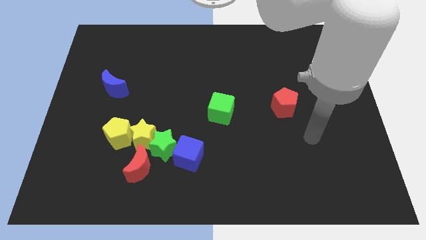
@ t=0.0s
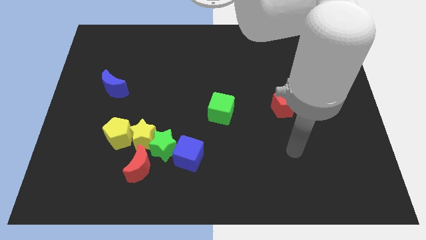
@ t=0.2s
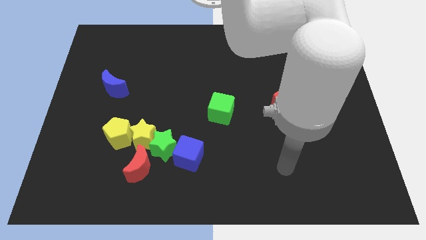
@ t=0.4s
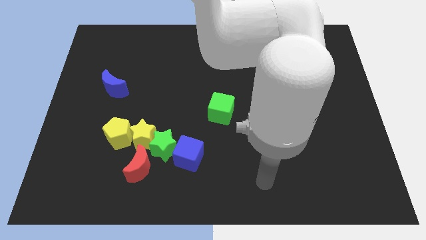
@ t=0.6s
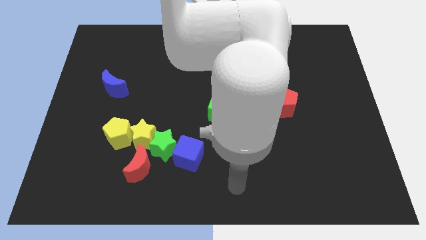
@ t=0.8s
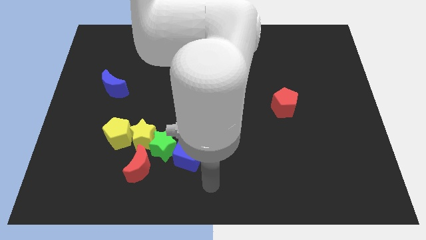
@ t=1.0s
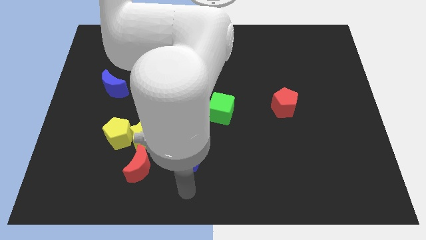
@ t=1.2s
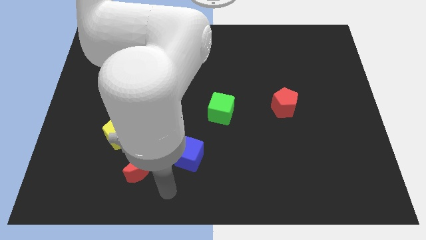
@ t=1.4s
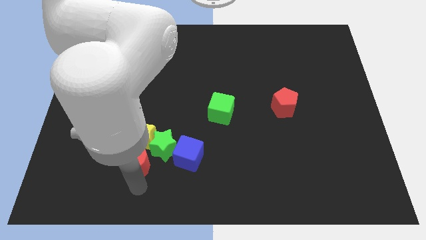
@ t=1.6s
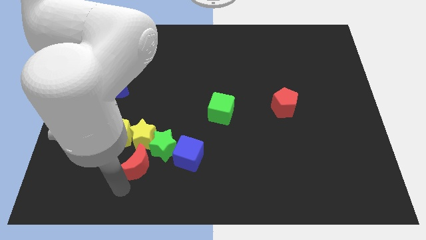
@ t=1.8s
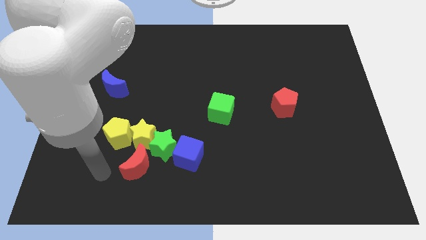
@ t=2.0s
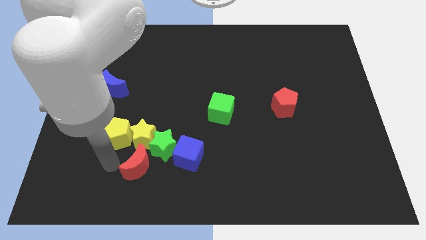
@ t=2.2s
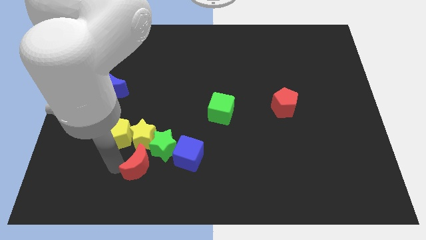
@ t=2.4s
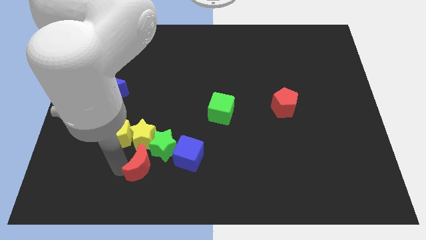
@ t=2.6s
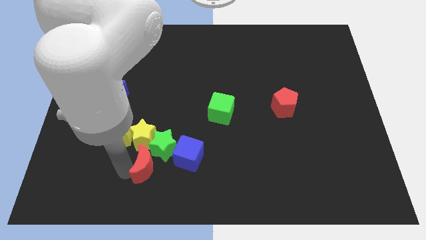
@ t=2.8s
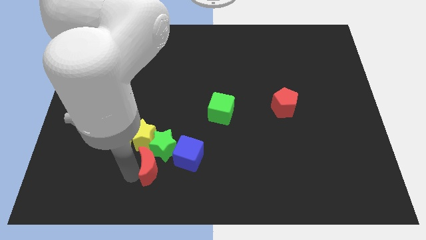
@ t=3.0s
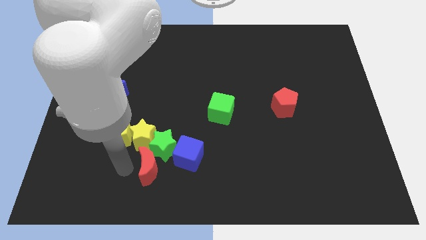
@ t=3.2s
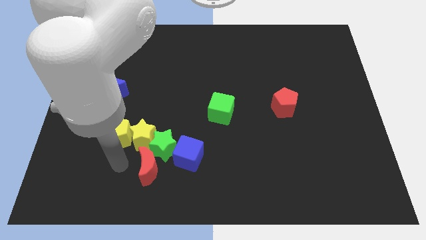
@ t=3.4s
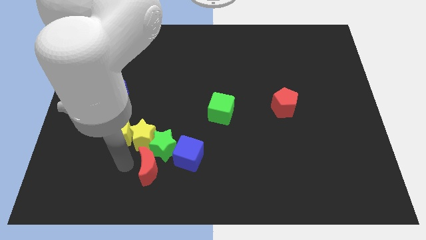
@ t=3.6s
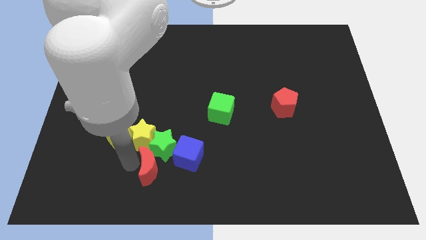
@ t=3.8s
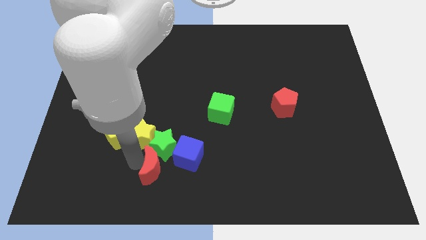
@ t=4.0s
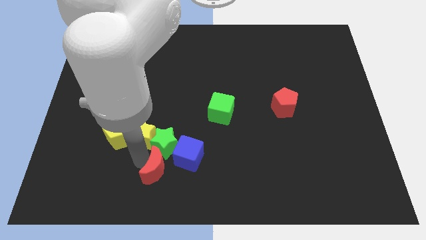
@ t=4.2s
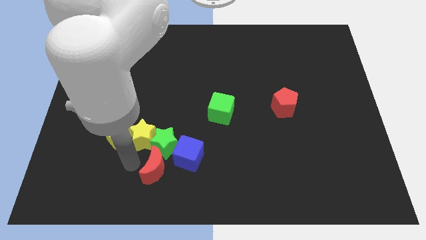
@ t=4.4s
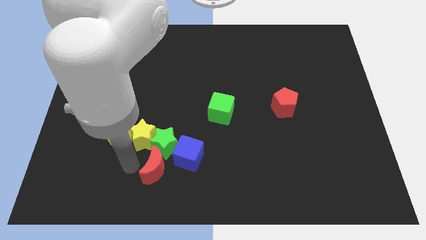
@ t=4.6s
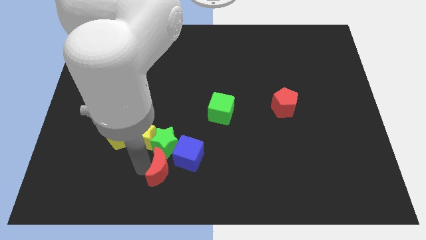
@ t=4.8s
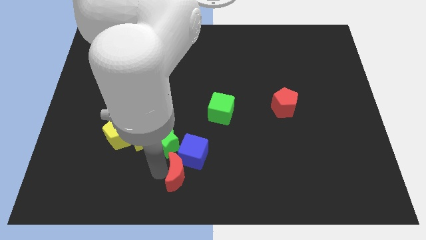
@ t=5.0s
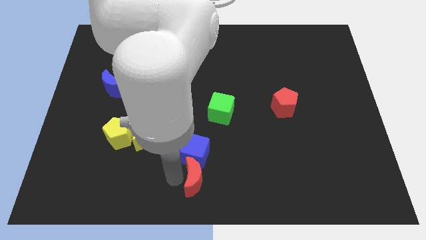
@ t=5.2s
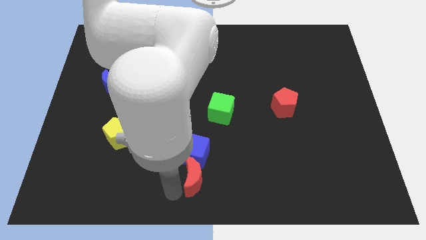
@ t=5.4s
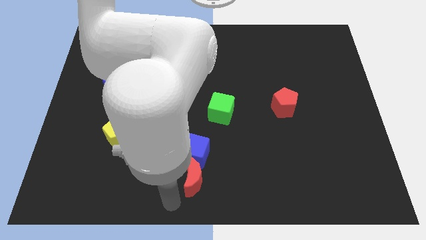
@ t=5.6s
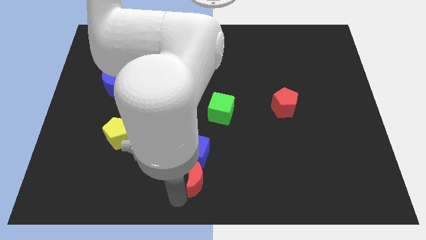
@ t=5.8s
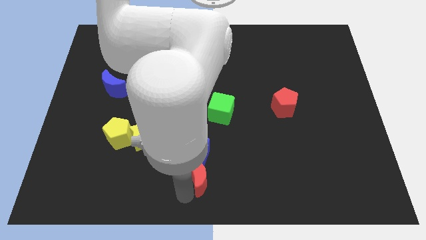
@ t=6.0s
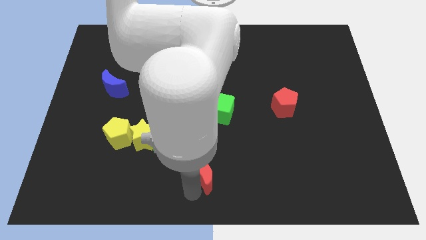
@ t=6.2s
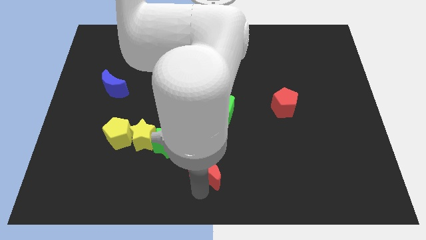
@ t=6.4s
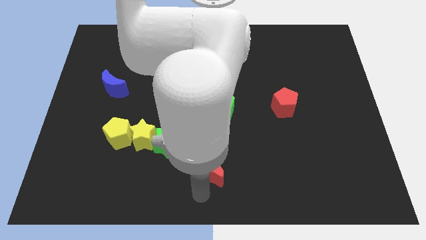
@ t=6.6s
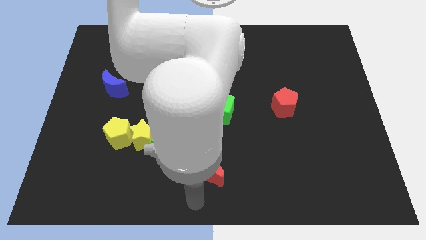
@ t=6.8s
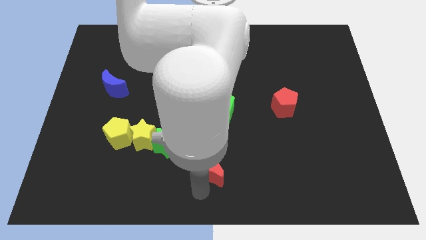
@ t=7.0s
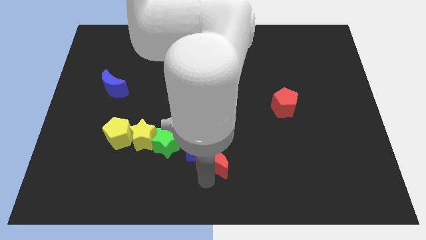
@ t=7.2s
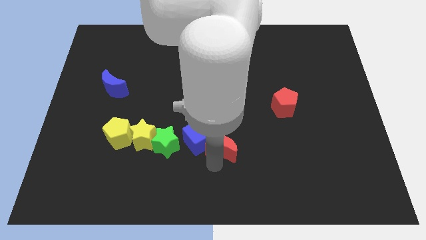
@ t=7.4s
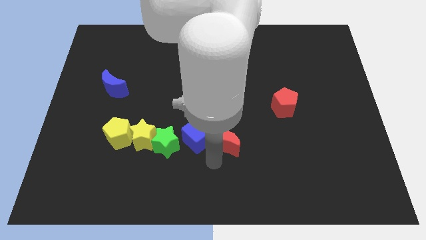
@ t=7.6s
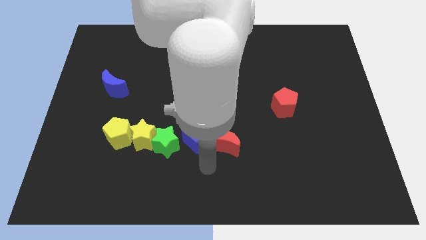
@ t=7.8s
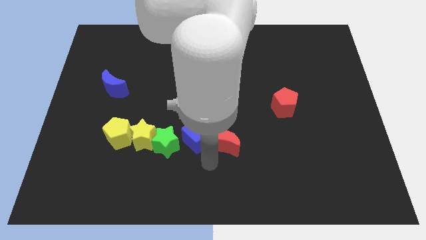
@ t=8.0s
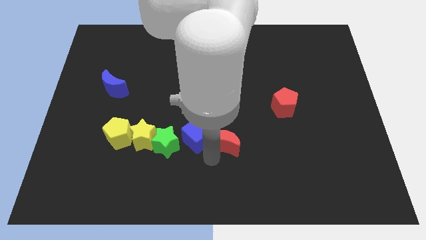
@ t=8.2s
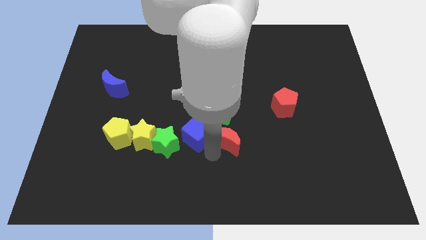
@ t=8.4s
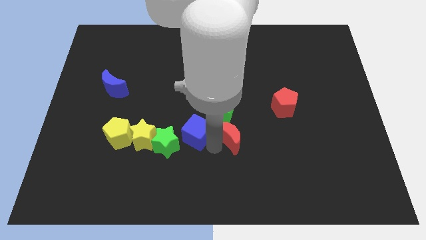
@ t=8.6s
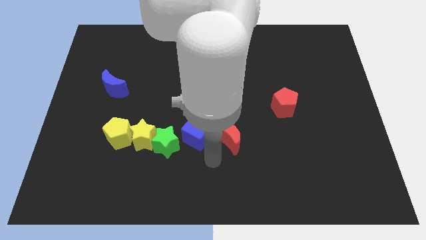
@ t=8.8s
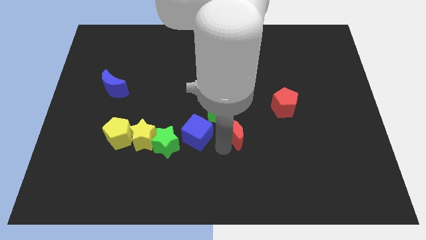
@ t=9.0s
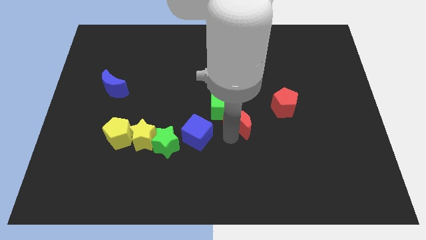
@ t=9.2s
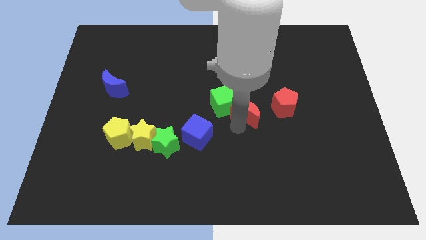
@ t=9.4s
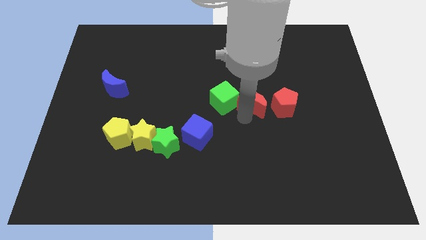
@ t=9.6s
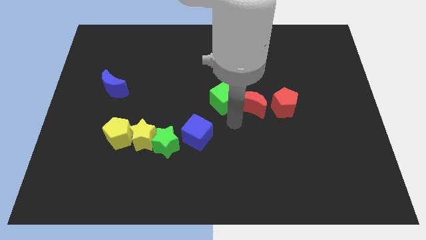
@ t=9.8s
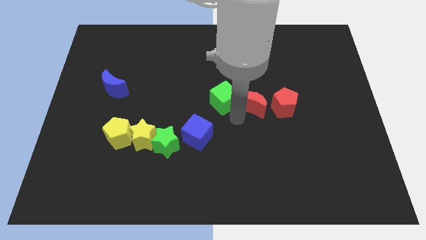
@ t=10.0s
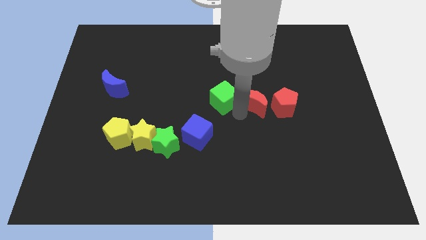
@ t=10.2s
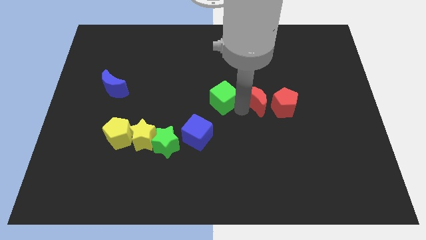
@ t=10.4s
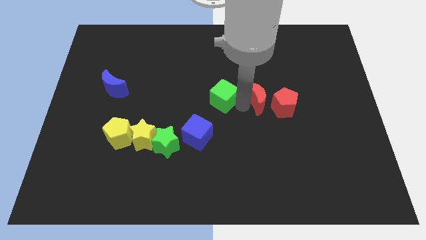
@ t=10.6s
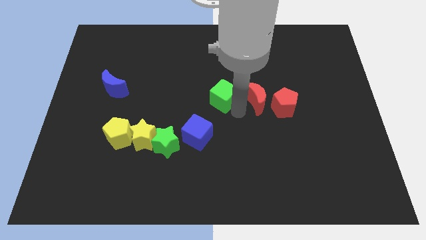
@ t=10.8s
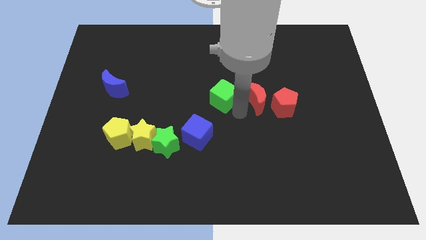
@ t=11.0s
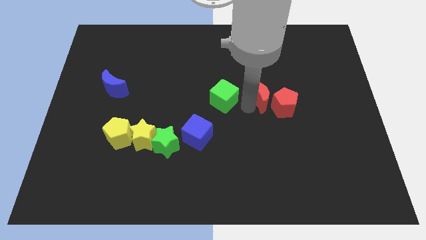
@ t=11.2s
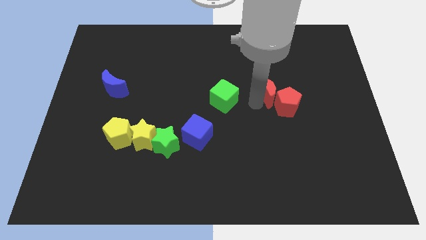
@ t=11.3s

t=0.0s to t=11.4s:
slide the red moon to the top of the red pentagon

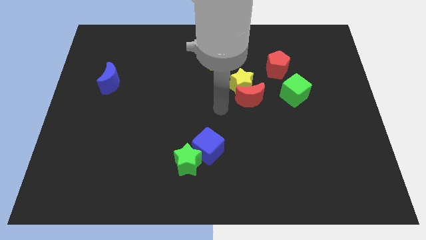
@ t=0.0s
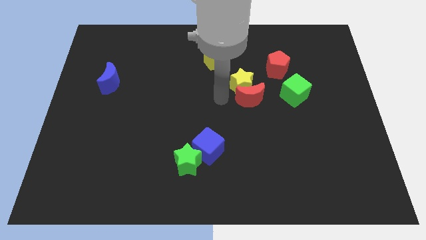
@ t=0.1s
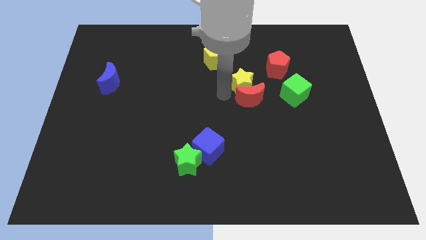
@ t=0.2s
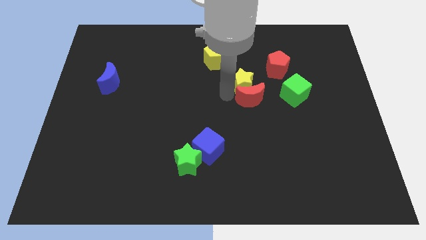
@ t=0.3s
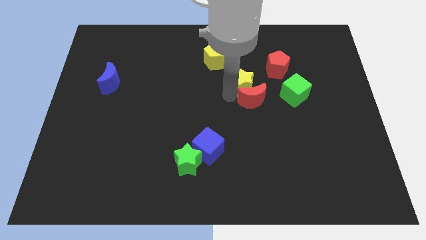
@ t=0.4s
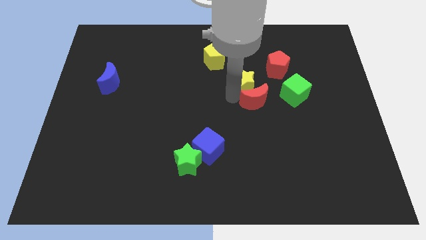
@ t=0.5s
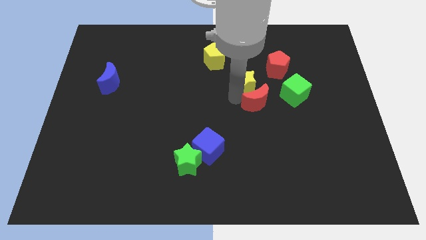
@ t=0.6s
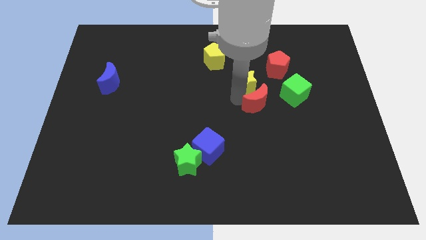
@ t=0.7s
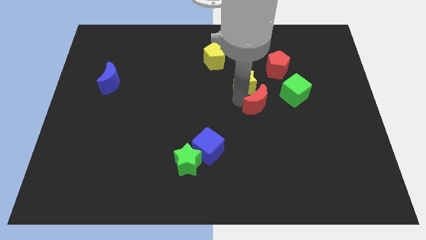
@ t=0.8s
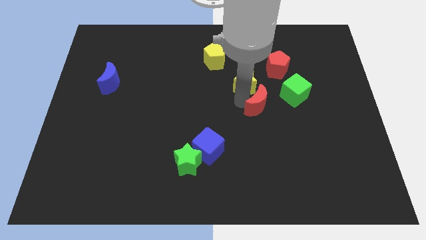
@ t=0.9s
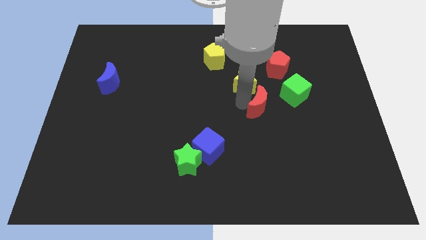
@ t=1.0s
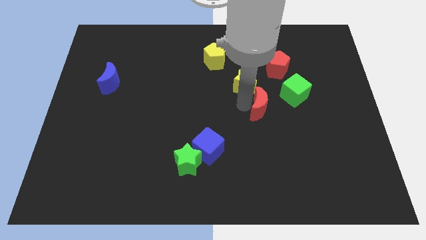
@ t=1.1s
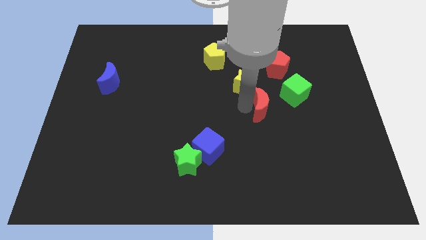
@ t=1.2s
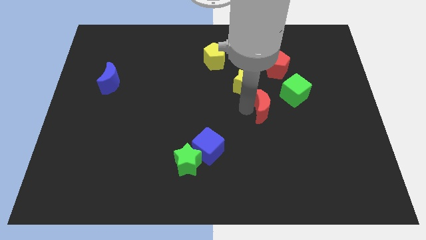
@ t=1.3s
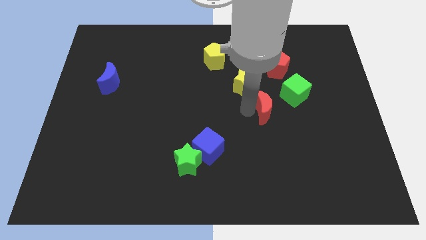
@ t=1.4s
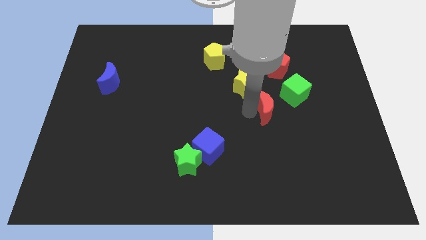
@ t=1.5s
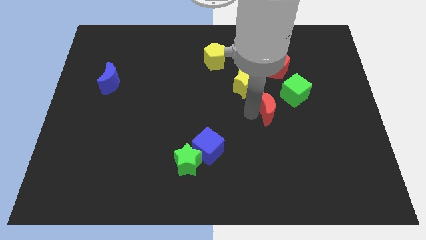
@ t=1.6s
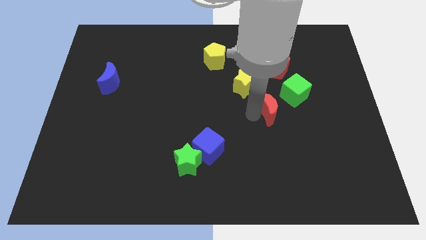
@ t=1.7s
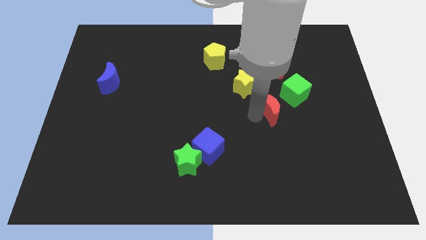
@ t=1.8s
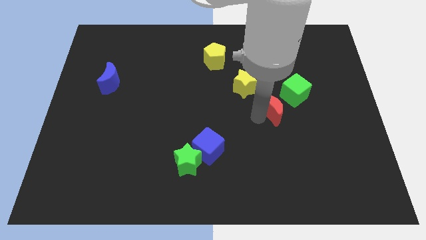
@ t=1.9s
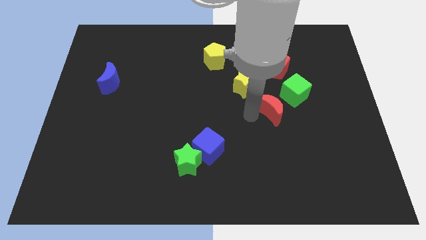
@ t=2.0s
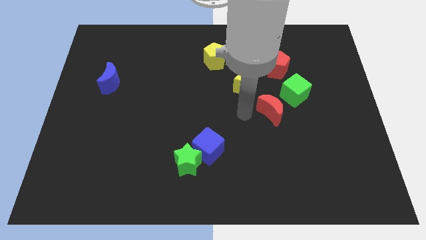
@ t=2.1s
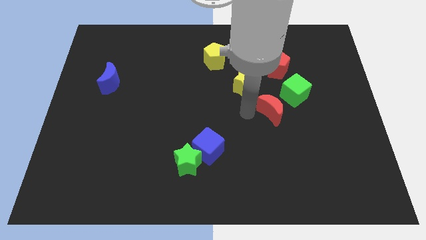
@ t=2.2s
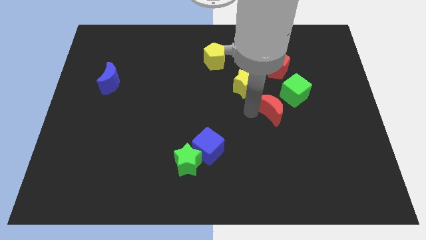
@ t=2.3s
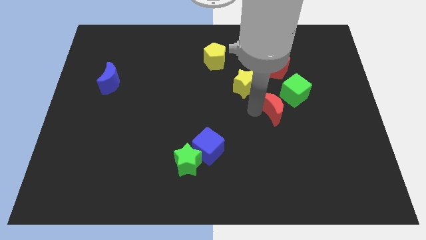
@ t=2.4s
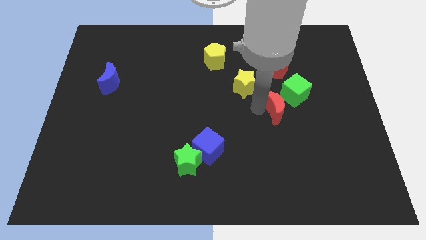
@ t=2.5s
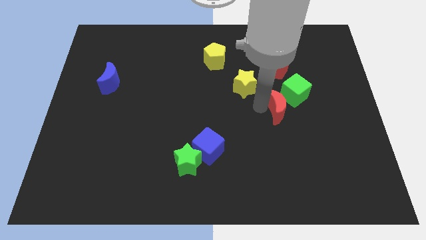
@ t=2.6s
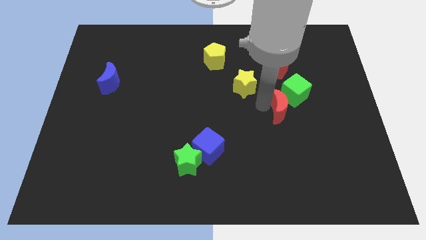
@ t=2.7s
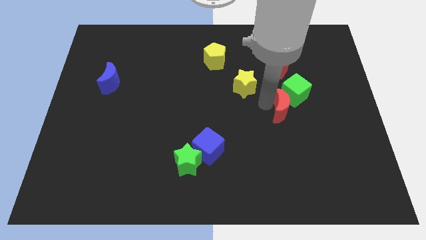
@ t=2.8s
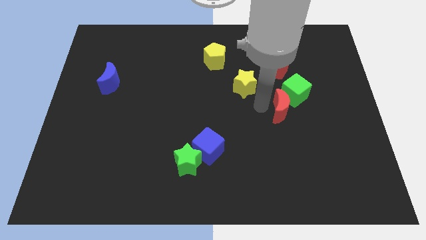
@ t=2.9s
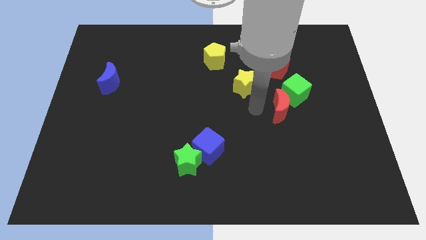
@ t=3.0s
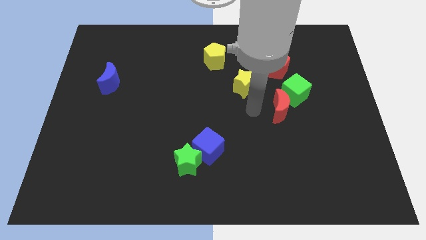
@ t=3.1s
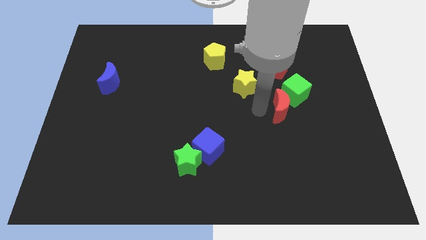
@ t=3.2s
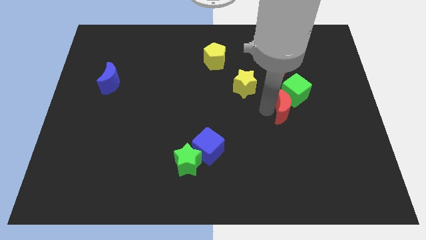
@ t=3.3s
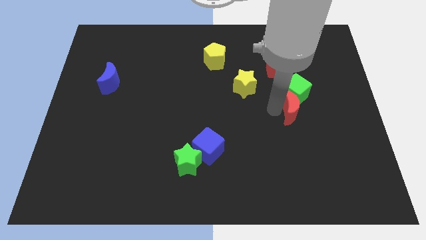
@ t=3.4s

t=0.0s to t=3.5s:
slide the red moon to the bottom right of the green cube
